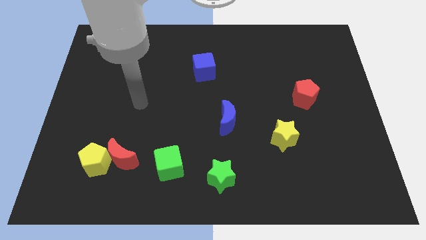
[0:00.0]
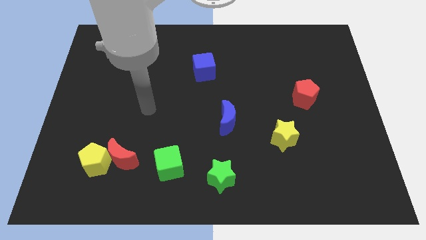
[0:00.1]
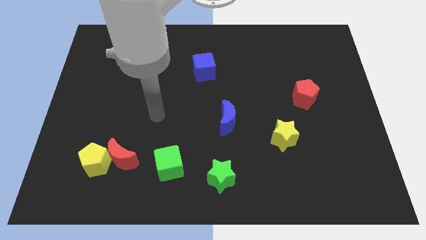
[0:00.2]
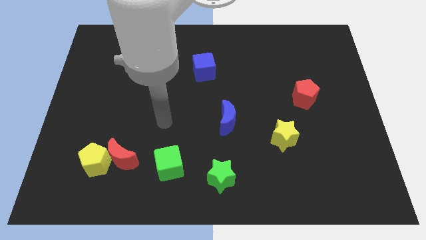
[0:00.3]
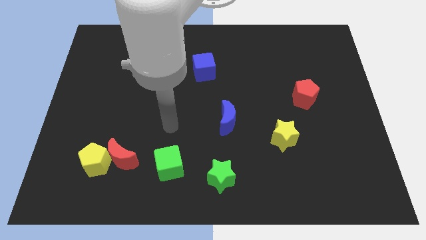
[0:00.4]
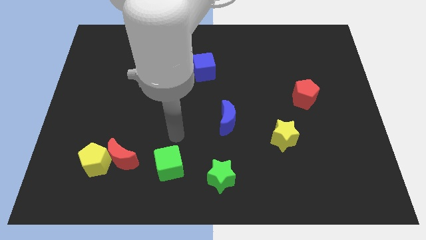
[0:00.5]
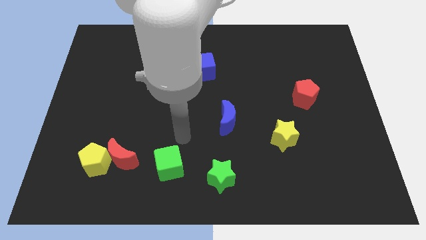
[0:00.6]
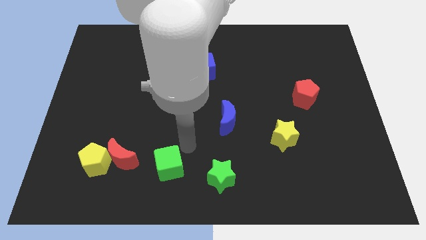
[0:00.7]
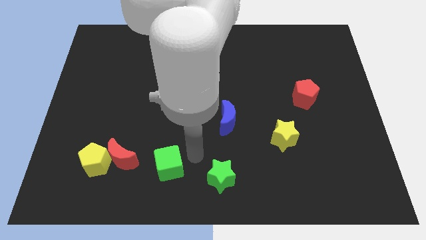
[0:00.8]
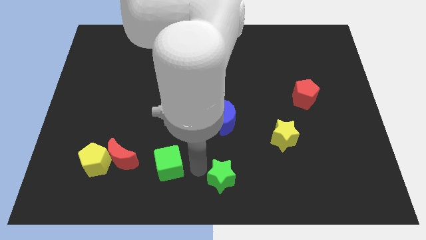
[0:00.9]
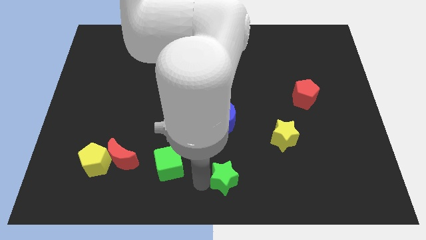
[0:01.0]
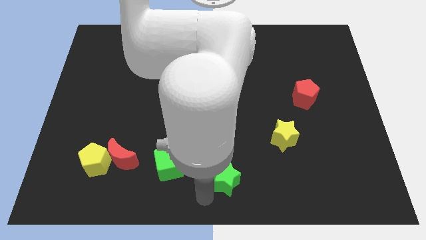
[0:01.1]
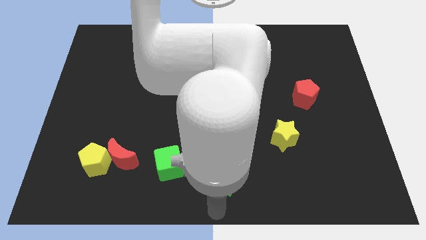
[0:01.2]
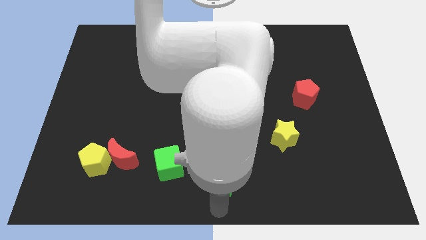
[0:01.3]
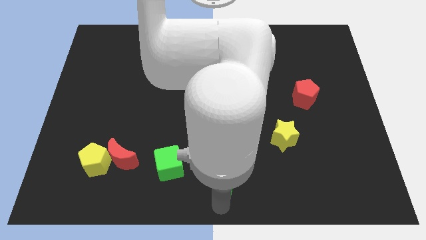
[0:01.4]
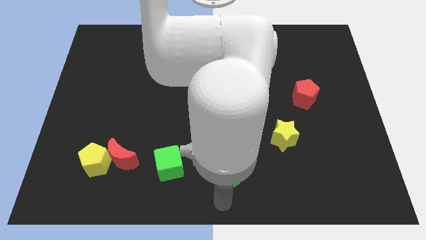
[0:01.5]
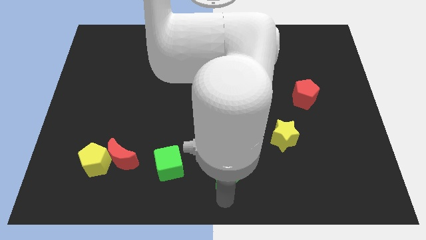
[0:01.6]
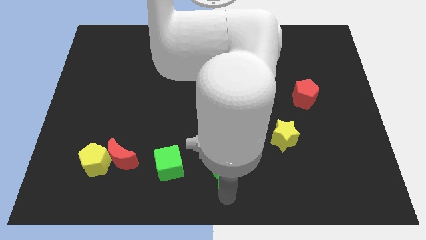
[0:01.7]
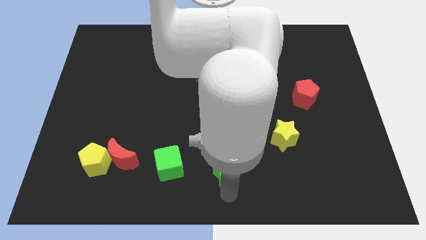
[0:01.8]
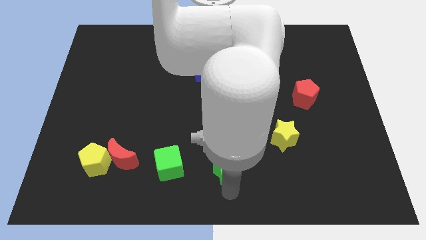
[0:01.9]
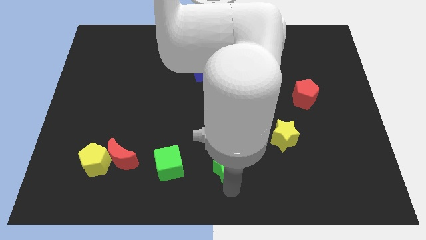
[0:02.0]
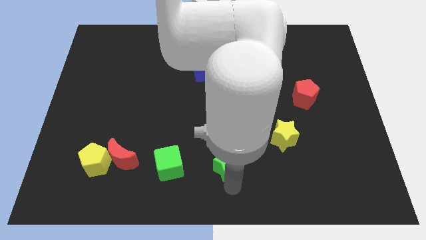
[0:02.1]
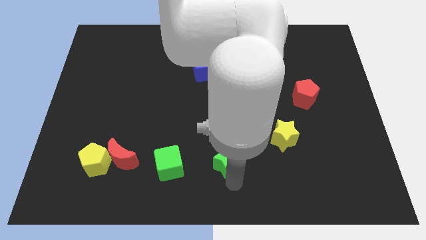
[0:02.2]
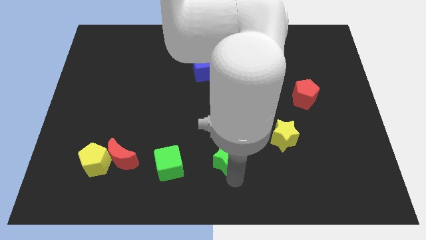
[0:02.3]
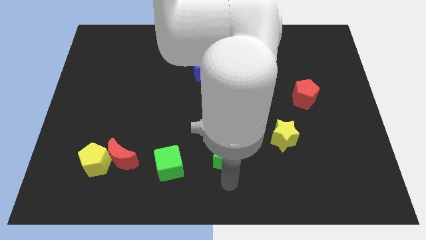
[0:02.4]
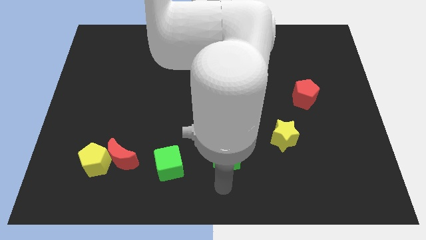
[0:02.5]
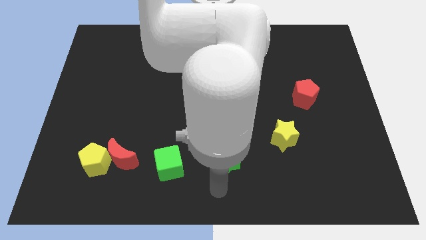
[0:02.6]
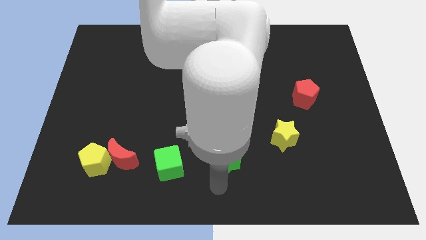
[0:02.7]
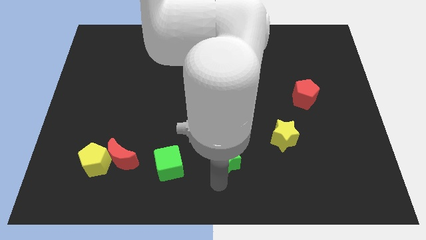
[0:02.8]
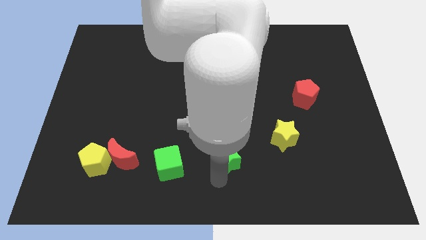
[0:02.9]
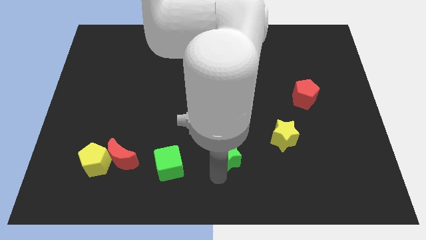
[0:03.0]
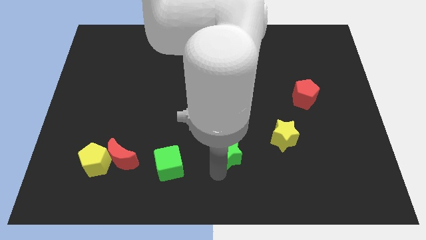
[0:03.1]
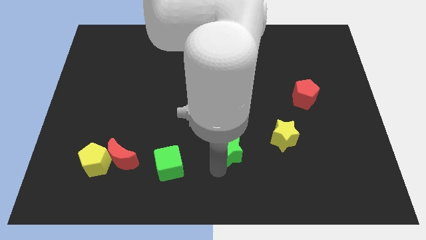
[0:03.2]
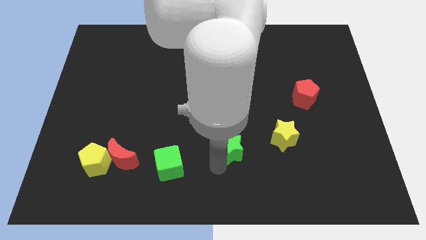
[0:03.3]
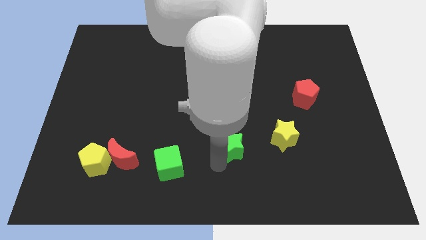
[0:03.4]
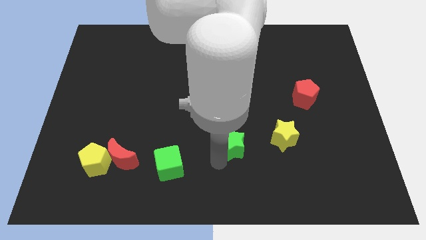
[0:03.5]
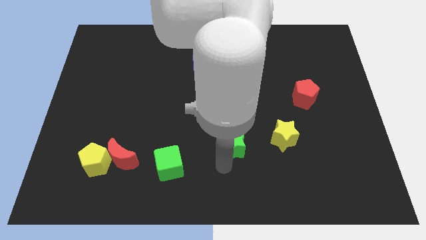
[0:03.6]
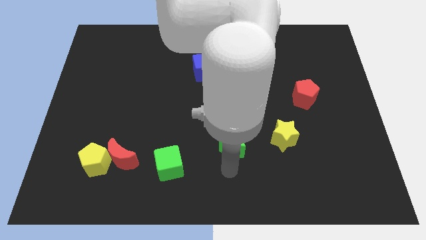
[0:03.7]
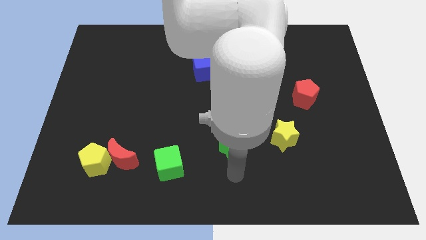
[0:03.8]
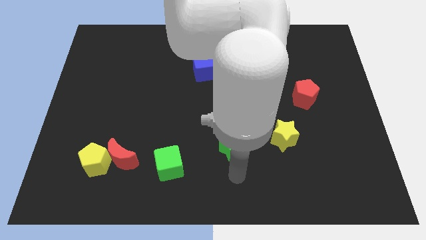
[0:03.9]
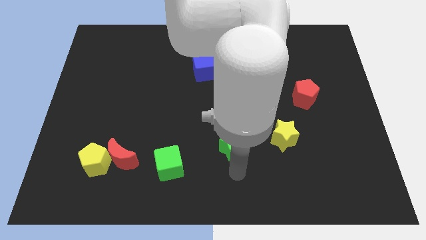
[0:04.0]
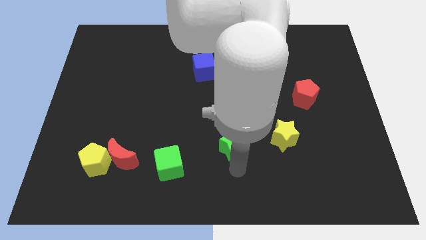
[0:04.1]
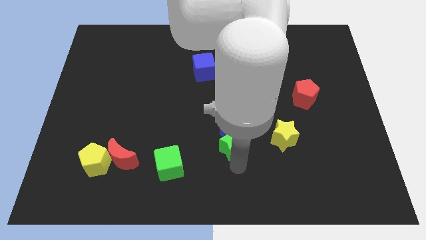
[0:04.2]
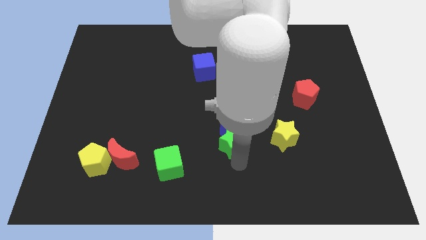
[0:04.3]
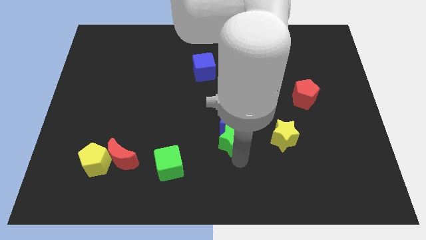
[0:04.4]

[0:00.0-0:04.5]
put the green star next to the blue moon

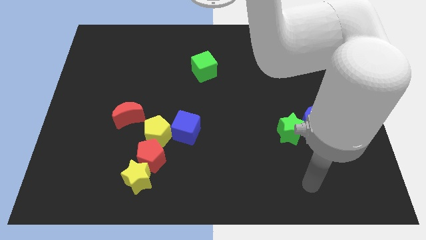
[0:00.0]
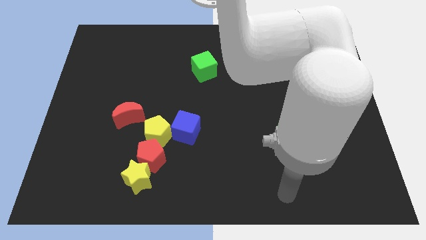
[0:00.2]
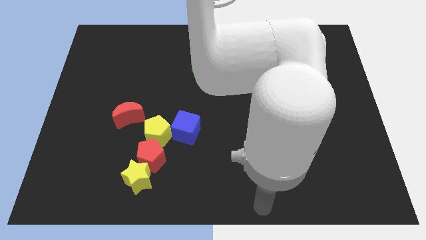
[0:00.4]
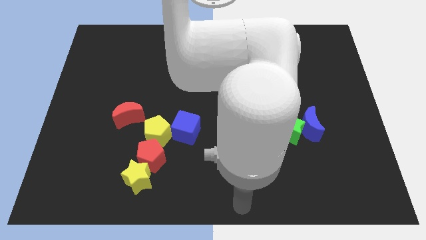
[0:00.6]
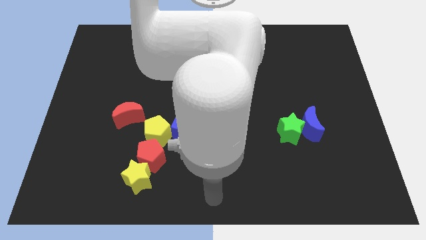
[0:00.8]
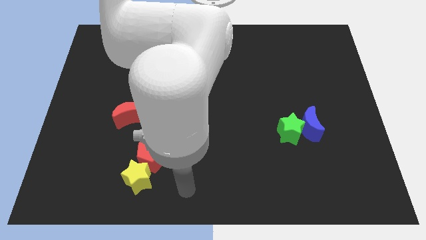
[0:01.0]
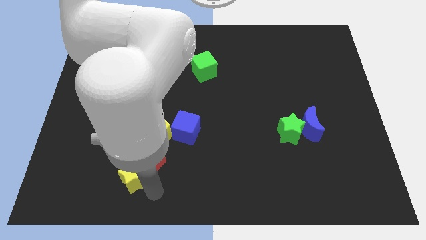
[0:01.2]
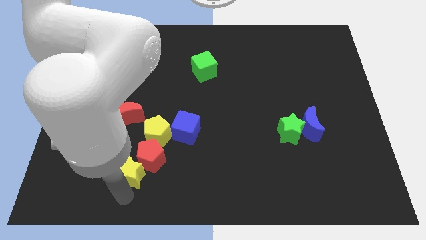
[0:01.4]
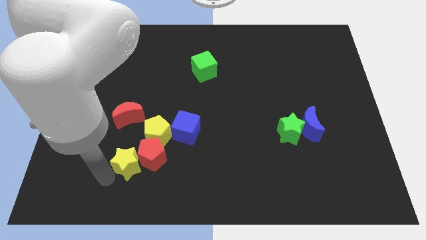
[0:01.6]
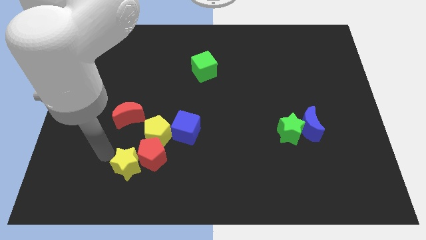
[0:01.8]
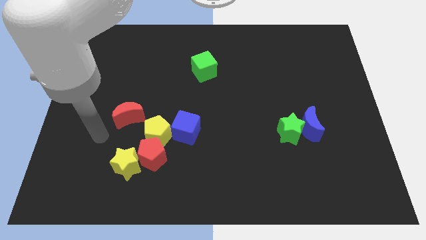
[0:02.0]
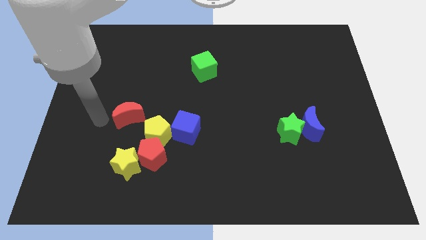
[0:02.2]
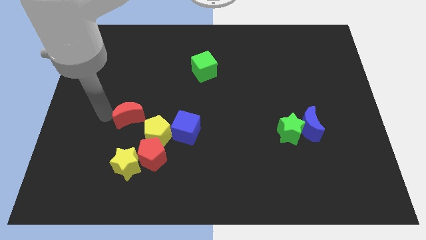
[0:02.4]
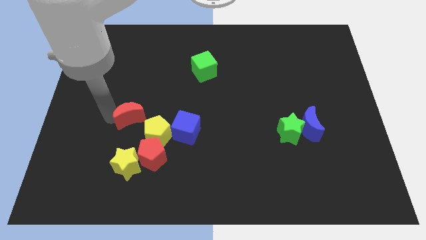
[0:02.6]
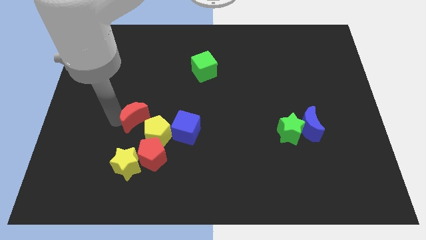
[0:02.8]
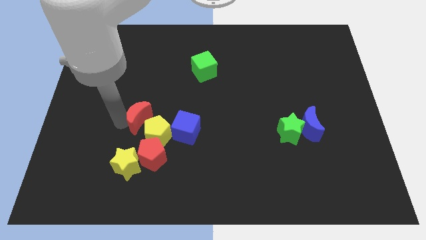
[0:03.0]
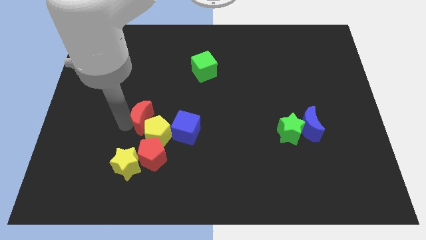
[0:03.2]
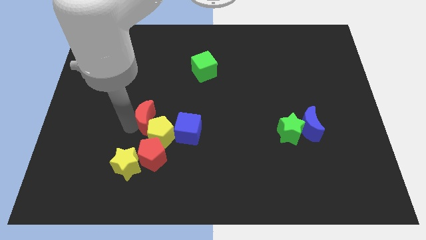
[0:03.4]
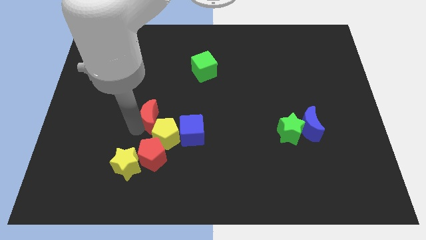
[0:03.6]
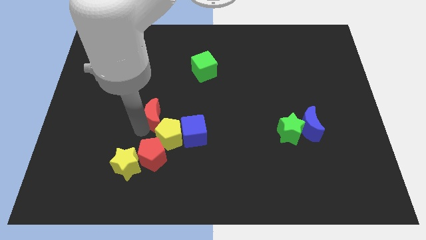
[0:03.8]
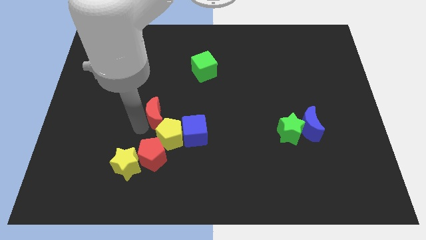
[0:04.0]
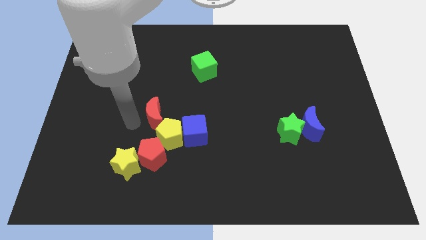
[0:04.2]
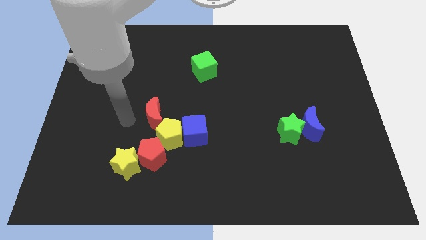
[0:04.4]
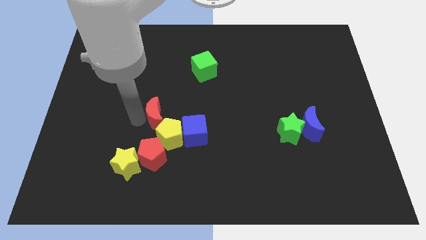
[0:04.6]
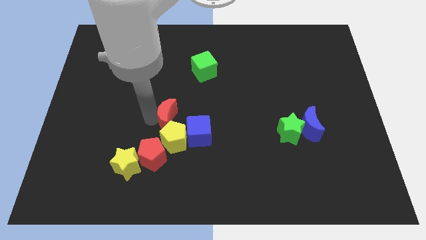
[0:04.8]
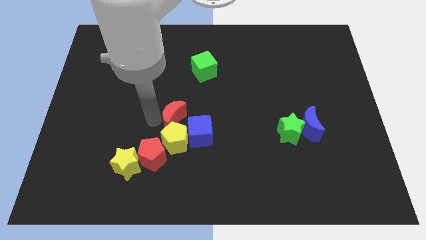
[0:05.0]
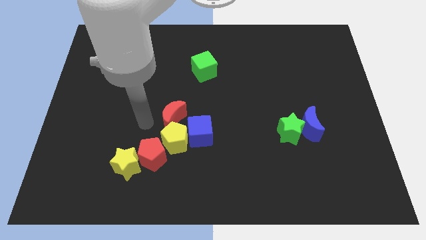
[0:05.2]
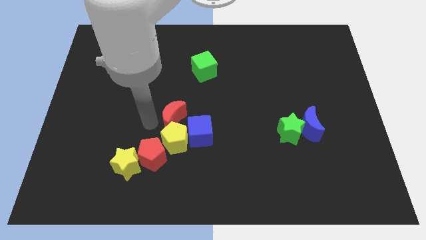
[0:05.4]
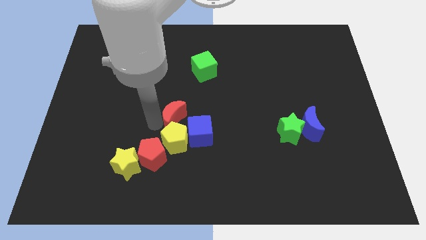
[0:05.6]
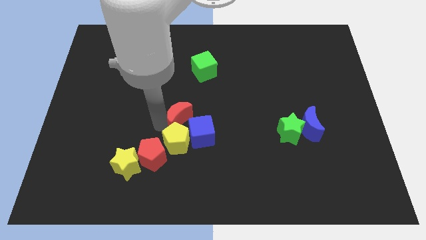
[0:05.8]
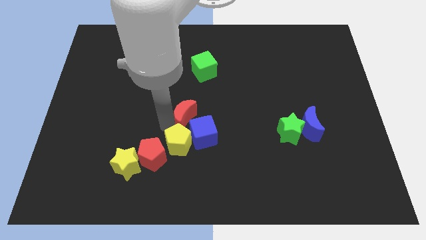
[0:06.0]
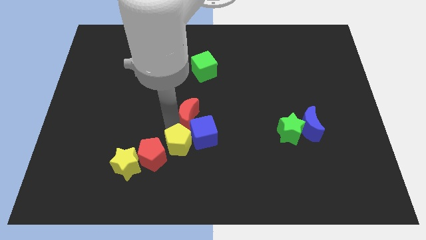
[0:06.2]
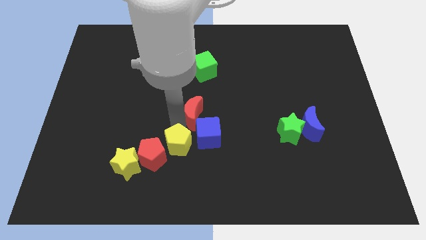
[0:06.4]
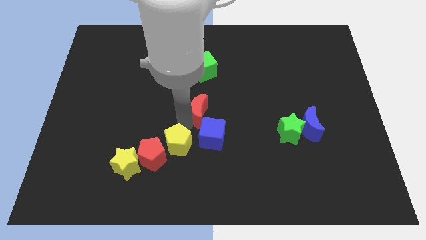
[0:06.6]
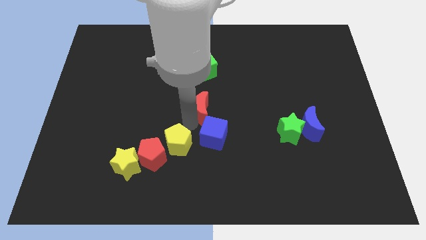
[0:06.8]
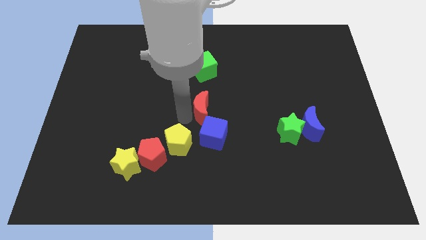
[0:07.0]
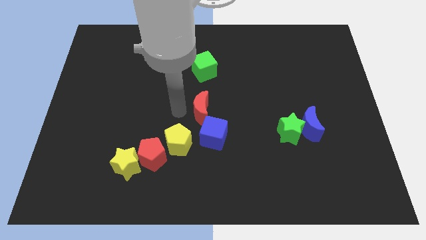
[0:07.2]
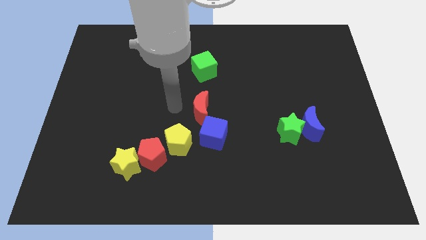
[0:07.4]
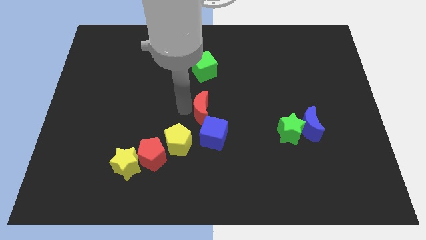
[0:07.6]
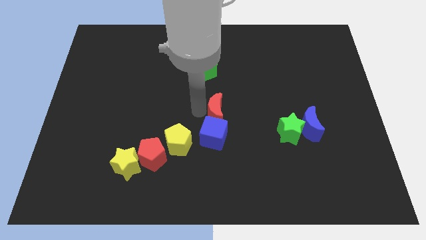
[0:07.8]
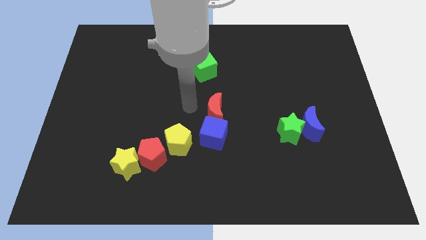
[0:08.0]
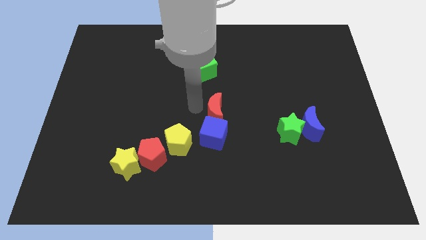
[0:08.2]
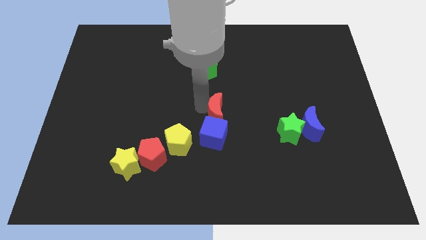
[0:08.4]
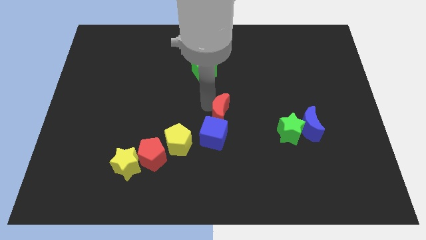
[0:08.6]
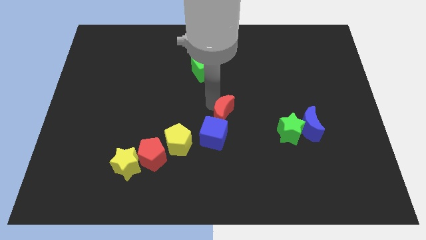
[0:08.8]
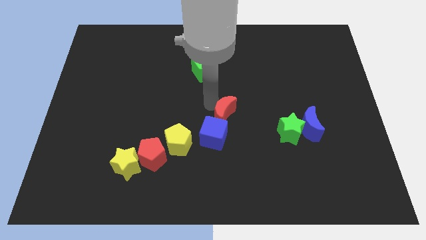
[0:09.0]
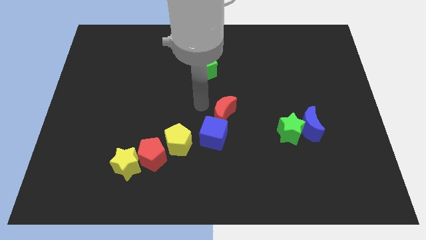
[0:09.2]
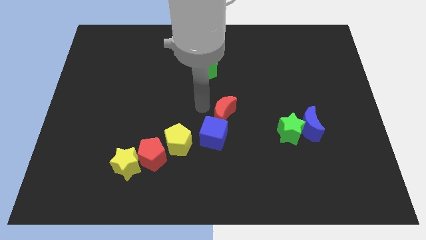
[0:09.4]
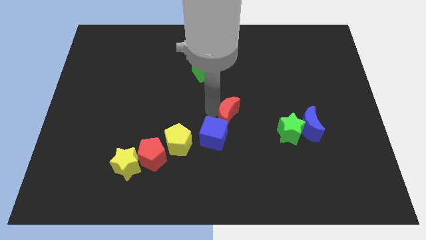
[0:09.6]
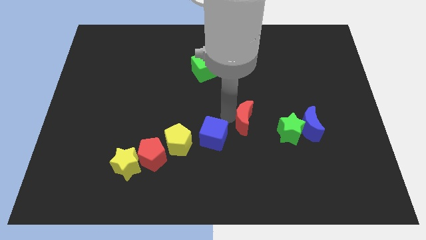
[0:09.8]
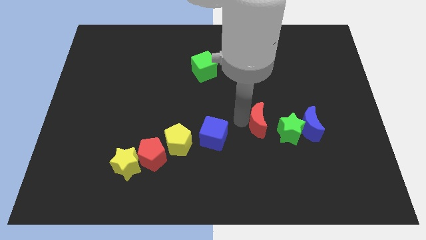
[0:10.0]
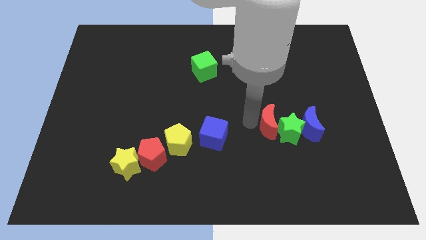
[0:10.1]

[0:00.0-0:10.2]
put the red moon close to the green star
